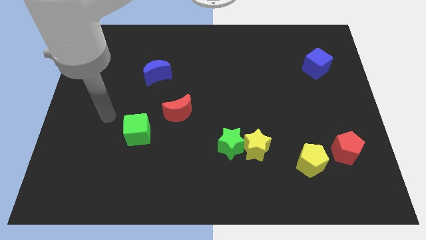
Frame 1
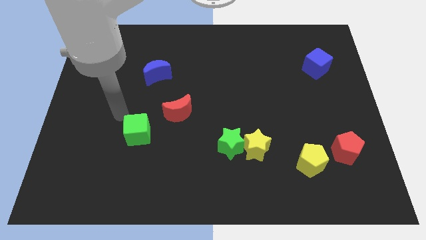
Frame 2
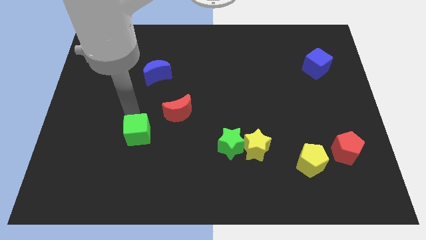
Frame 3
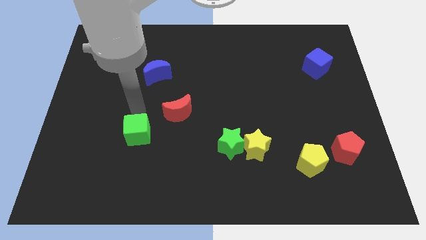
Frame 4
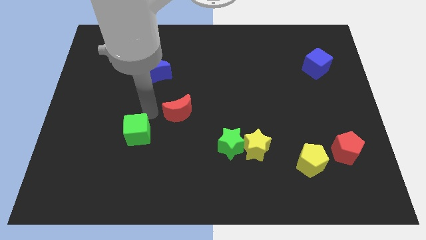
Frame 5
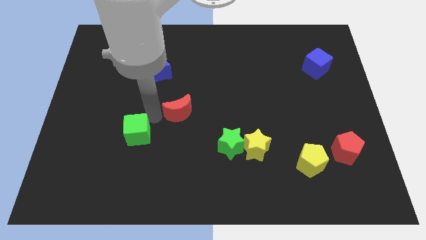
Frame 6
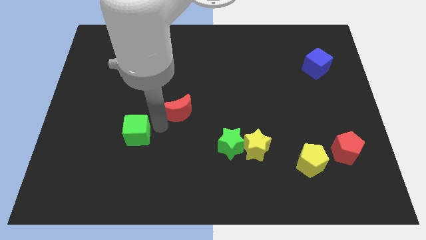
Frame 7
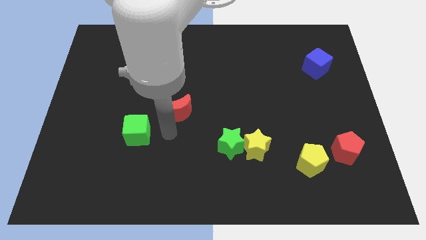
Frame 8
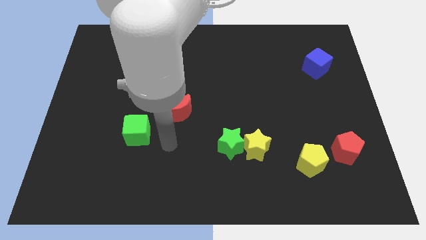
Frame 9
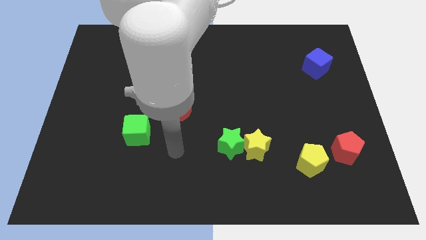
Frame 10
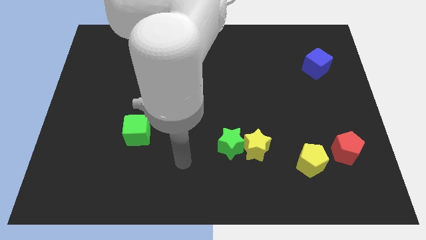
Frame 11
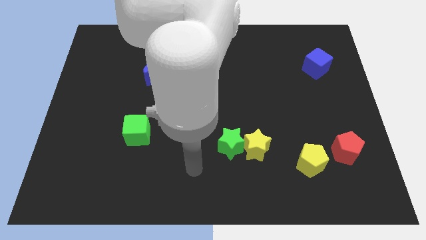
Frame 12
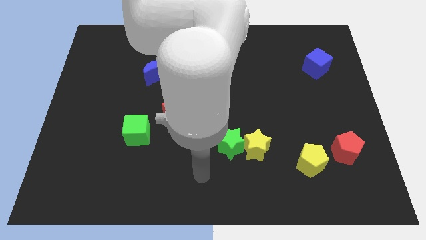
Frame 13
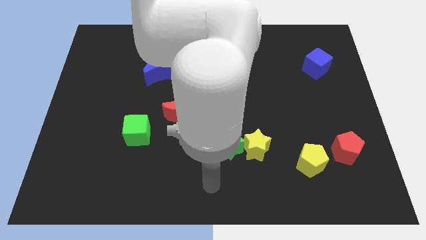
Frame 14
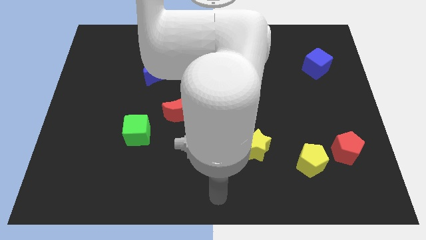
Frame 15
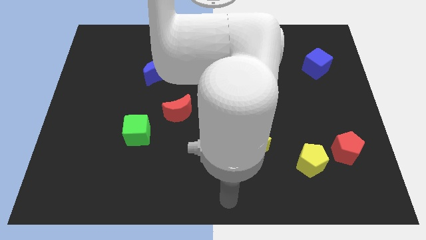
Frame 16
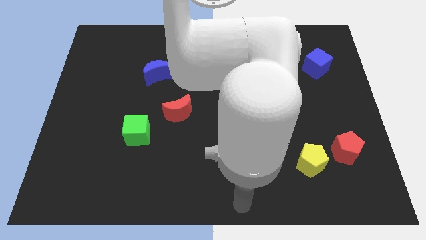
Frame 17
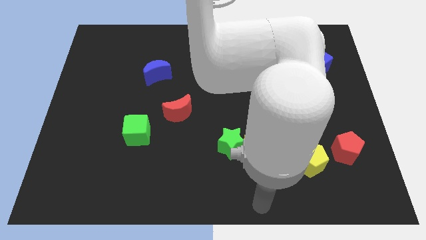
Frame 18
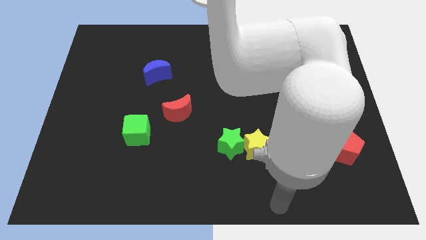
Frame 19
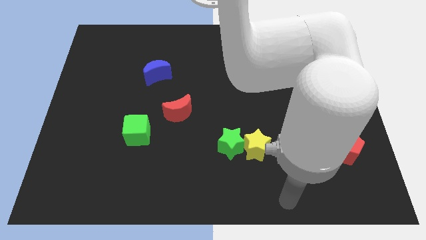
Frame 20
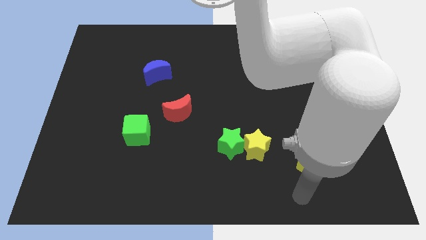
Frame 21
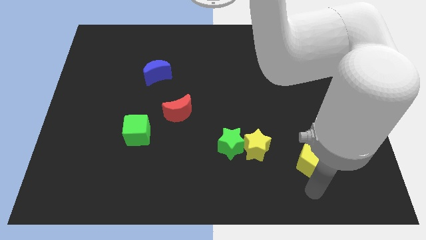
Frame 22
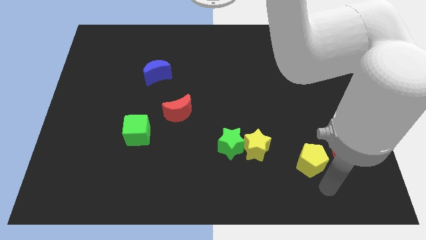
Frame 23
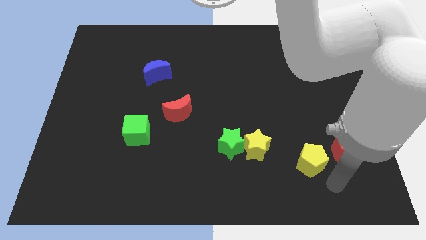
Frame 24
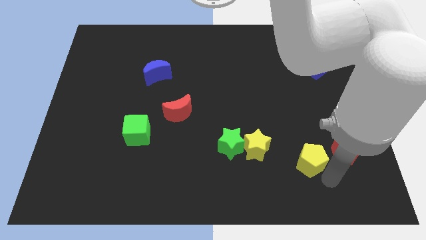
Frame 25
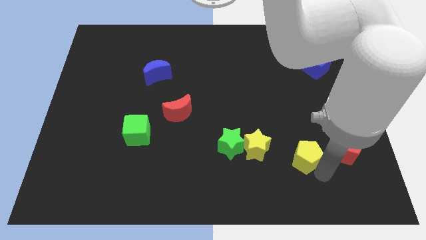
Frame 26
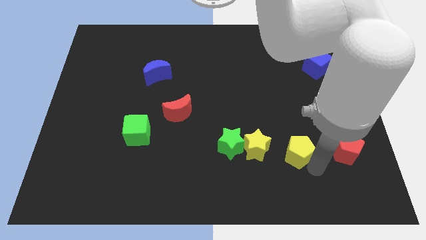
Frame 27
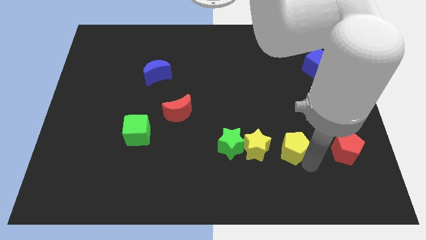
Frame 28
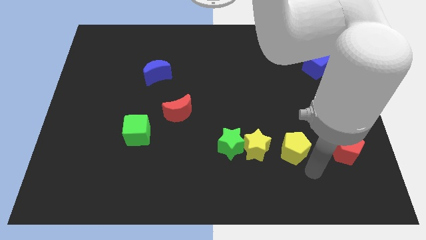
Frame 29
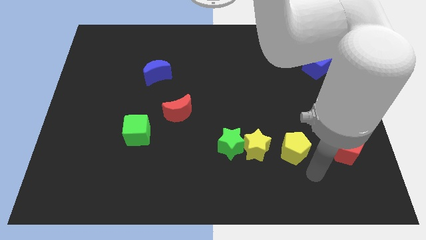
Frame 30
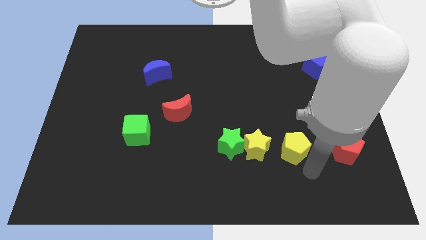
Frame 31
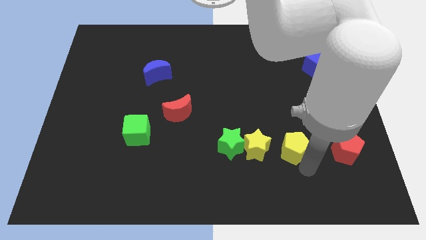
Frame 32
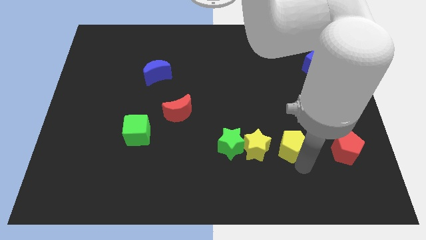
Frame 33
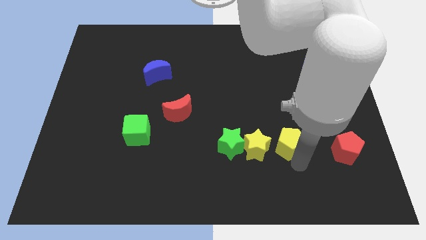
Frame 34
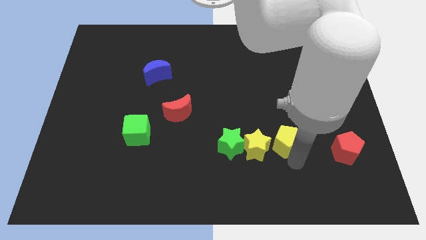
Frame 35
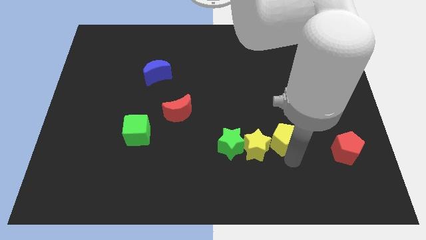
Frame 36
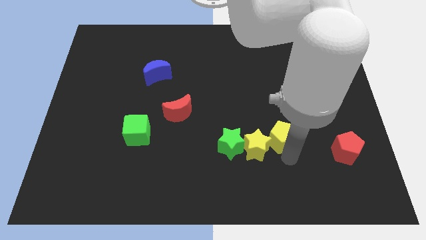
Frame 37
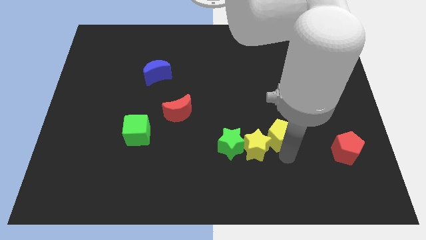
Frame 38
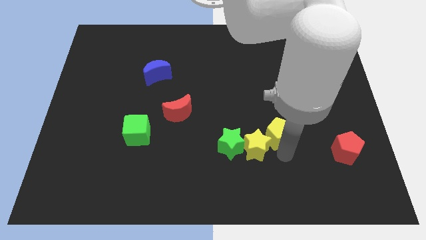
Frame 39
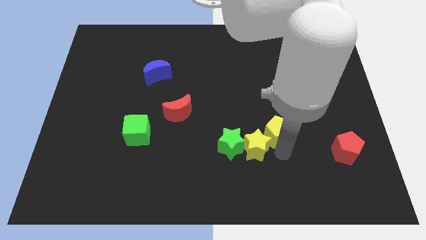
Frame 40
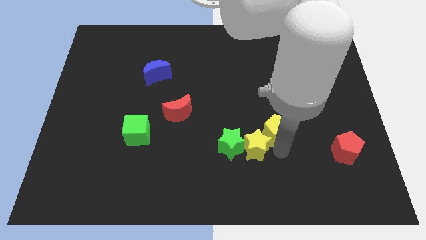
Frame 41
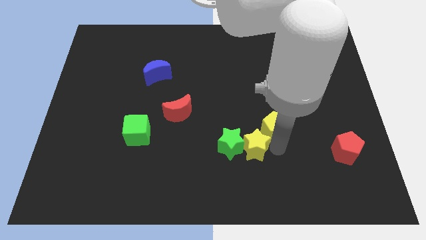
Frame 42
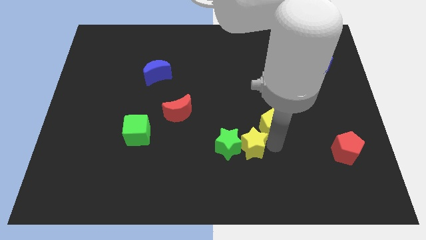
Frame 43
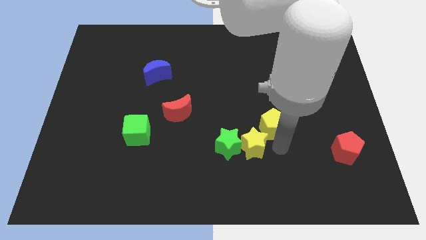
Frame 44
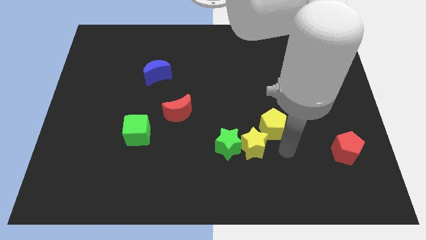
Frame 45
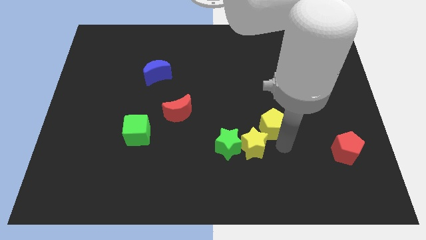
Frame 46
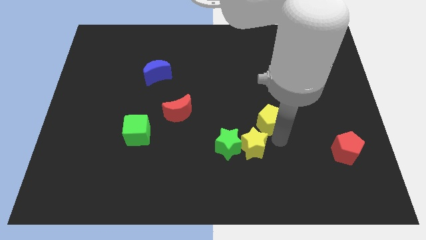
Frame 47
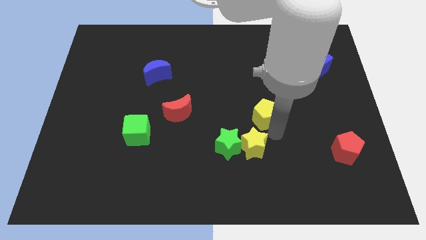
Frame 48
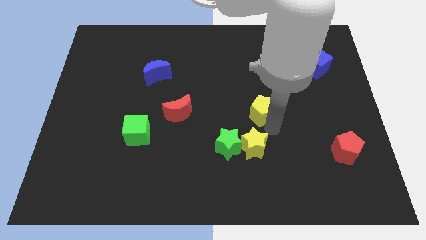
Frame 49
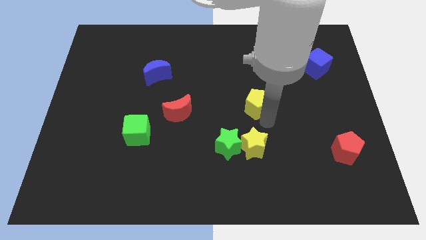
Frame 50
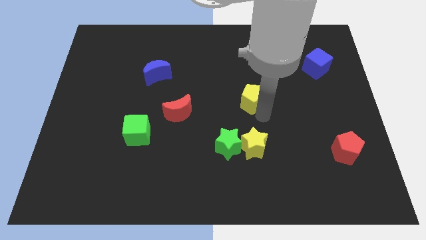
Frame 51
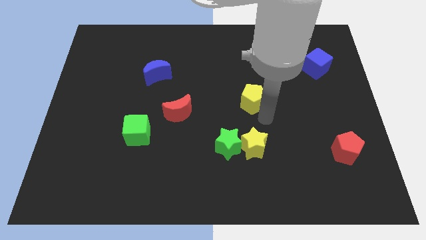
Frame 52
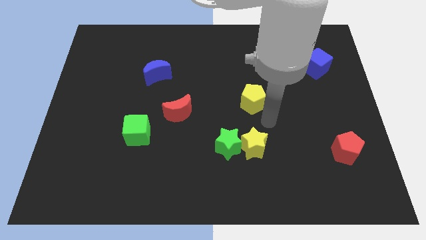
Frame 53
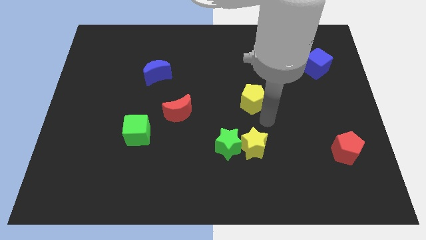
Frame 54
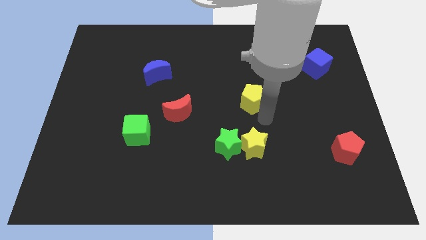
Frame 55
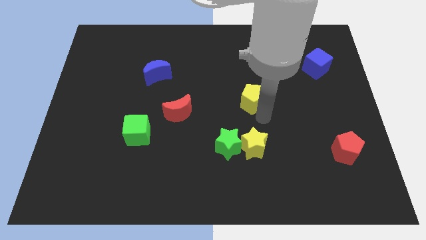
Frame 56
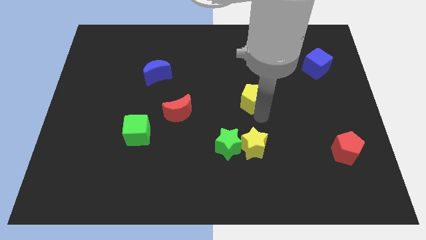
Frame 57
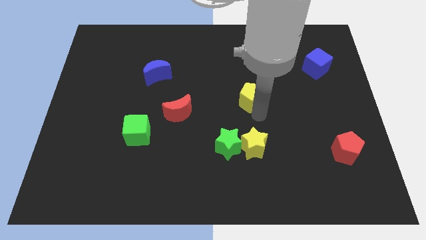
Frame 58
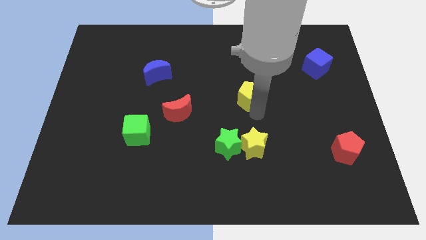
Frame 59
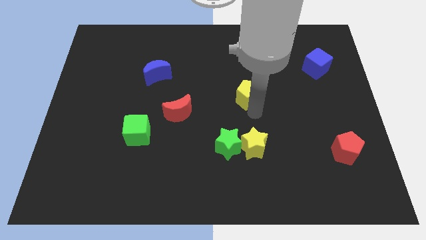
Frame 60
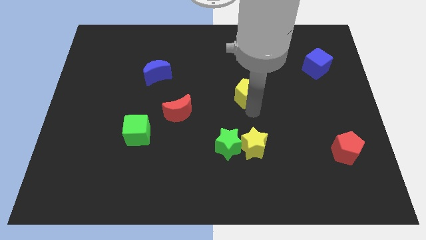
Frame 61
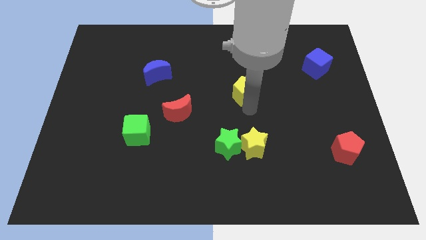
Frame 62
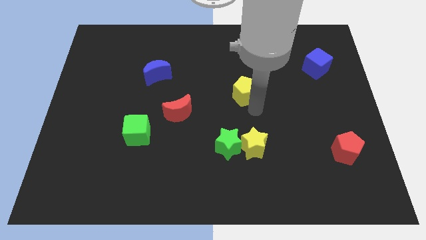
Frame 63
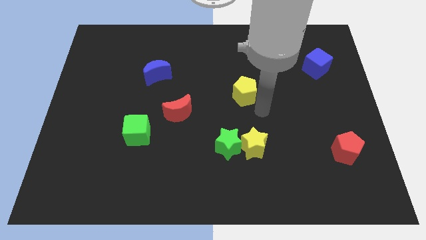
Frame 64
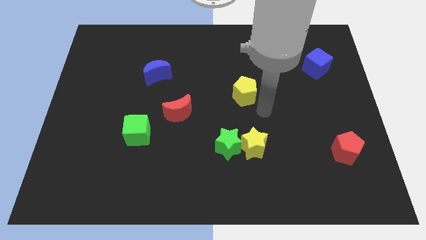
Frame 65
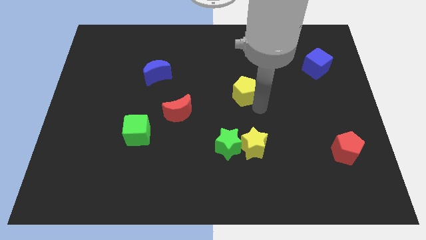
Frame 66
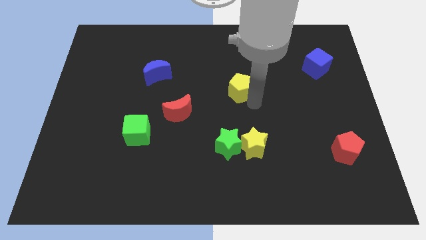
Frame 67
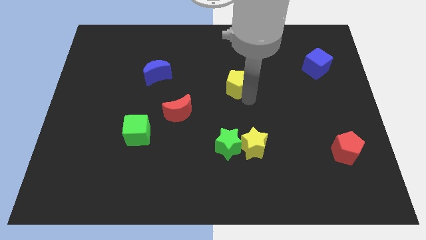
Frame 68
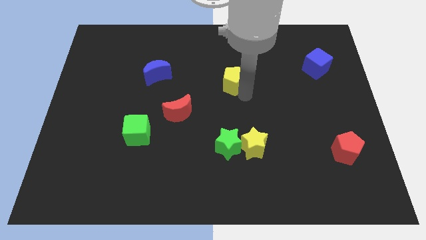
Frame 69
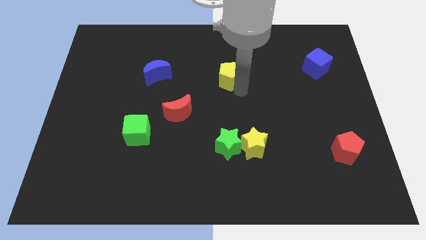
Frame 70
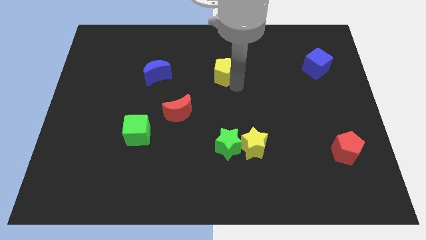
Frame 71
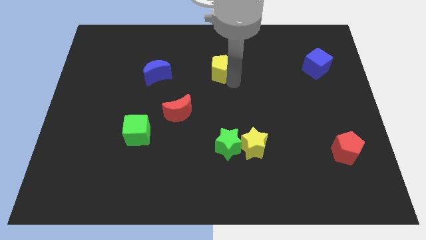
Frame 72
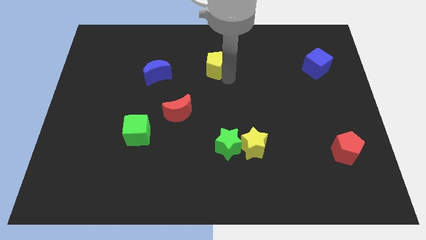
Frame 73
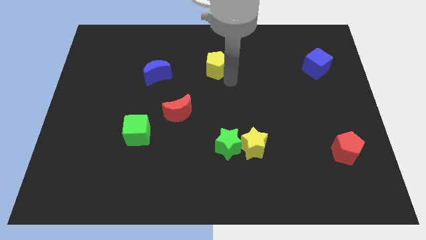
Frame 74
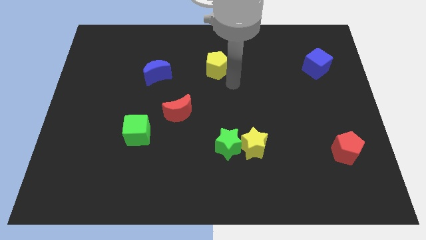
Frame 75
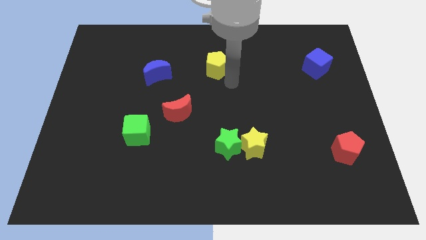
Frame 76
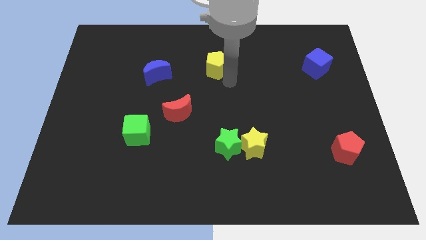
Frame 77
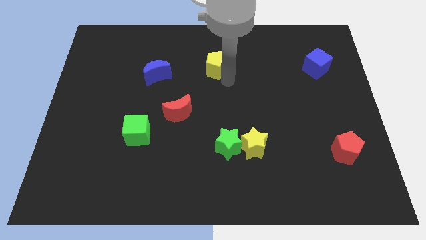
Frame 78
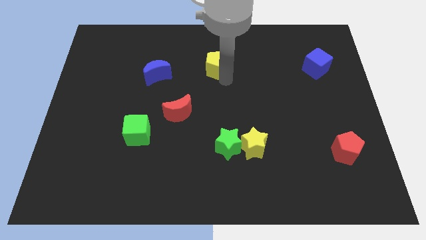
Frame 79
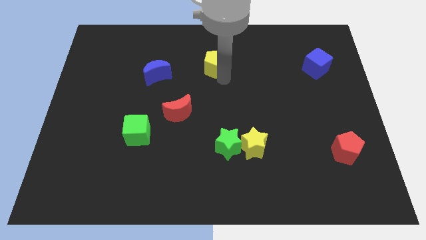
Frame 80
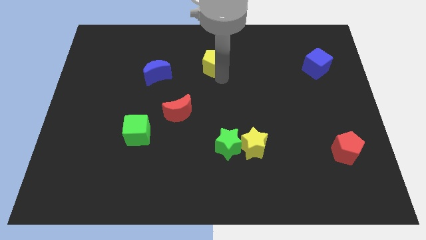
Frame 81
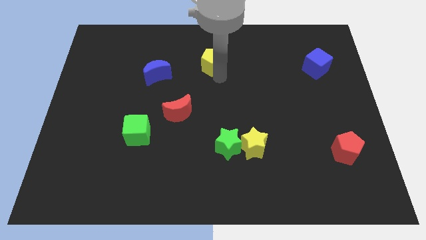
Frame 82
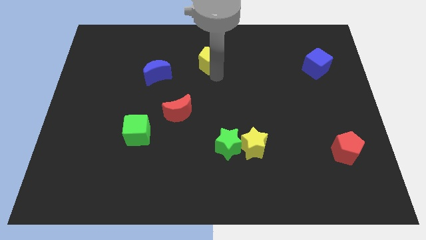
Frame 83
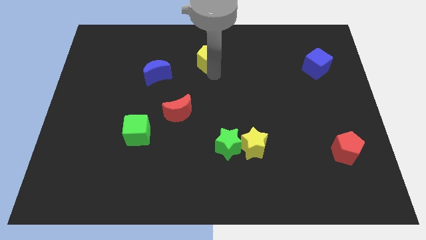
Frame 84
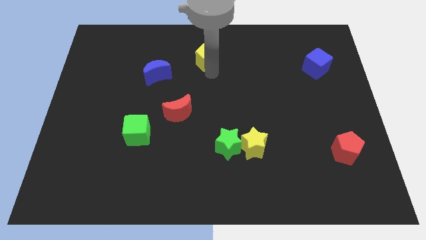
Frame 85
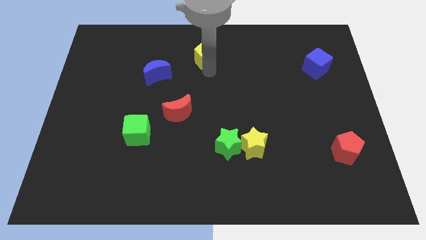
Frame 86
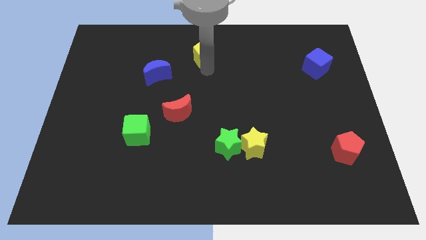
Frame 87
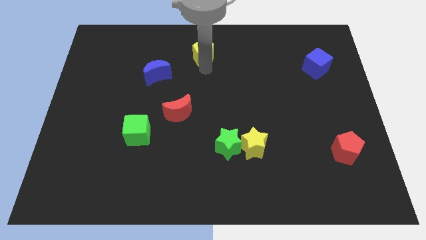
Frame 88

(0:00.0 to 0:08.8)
move the yellow pentagon to the top
